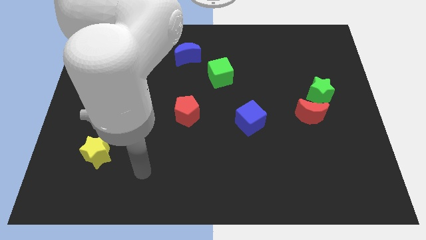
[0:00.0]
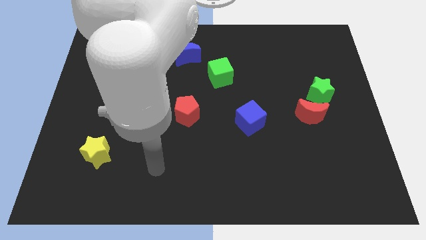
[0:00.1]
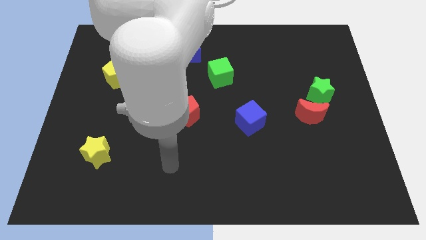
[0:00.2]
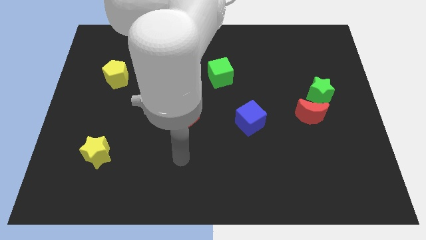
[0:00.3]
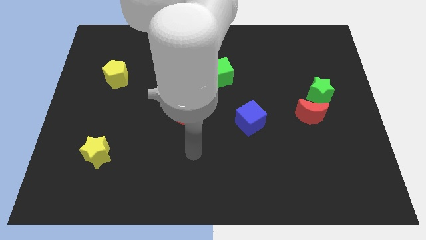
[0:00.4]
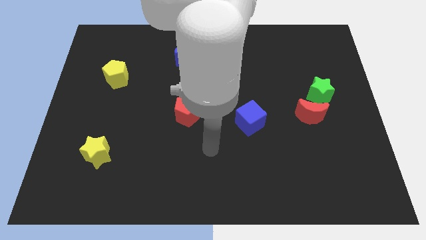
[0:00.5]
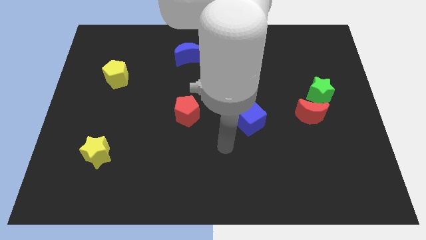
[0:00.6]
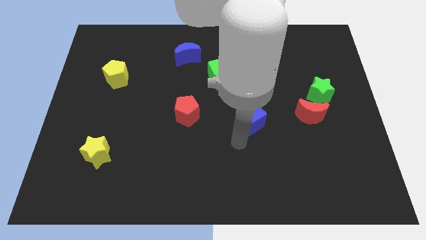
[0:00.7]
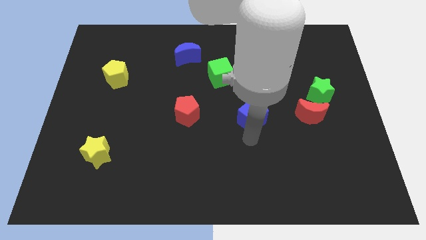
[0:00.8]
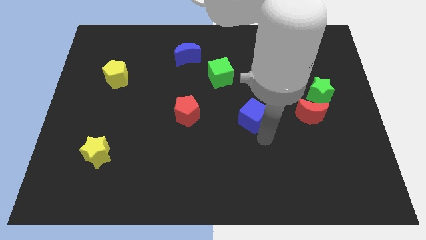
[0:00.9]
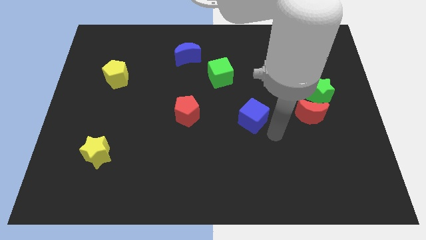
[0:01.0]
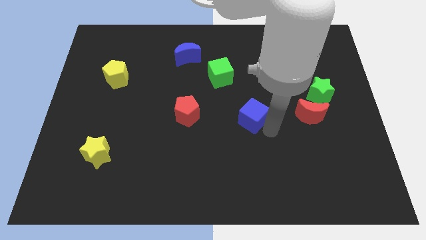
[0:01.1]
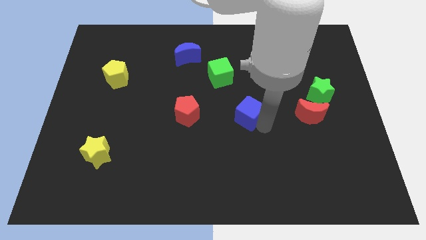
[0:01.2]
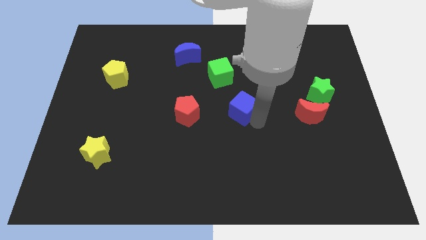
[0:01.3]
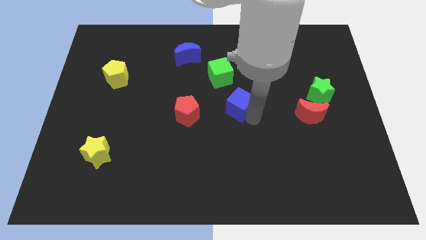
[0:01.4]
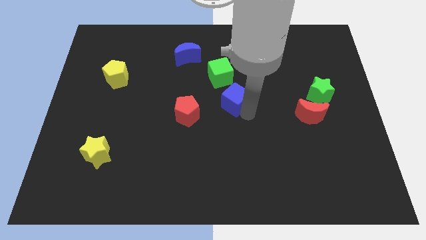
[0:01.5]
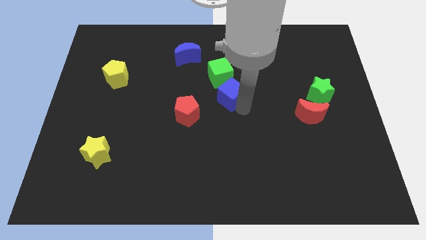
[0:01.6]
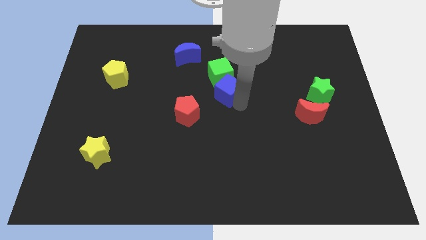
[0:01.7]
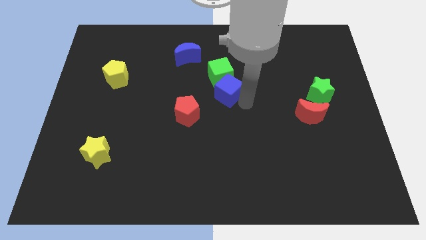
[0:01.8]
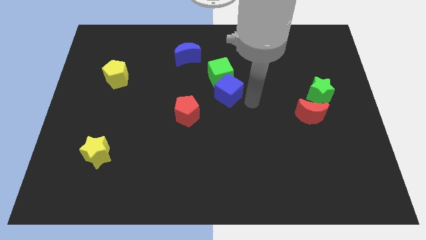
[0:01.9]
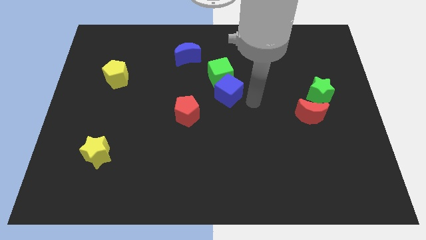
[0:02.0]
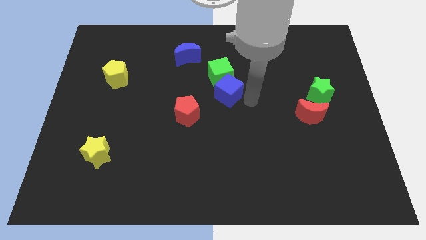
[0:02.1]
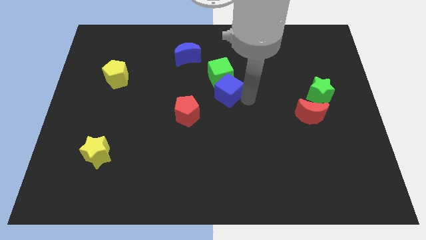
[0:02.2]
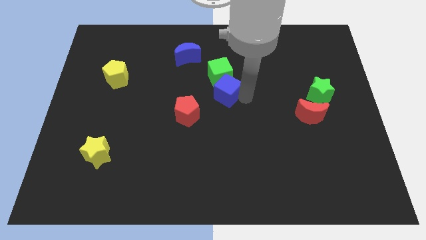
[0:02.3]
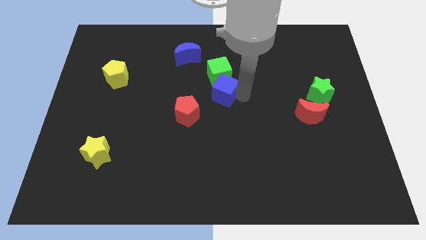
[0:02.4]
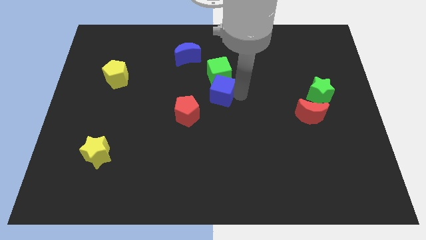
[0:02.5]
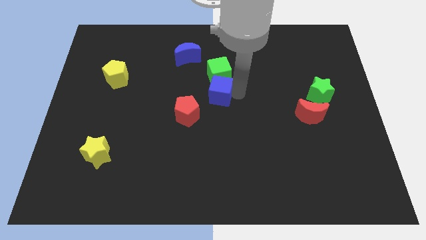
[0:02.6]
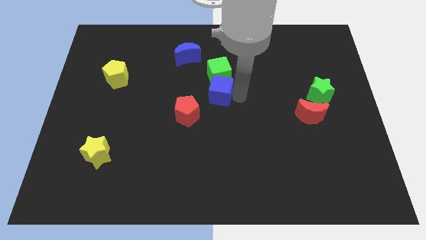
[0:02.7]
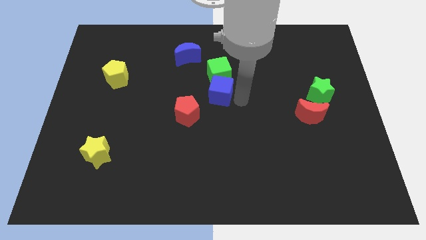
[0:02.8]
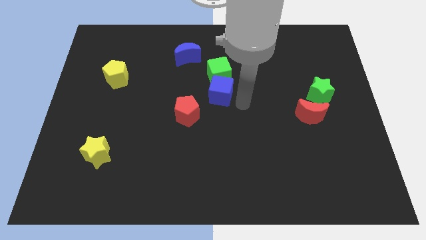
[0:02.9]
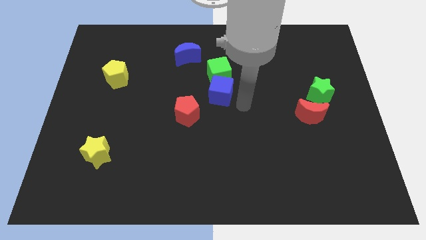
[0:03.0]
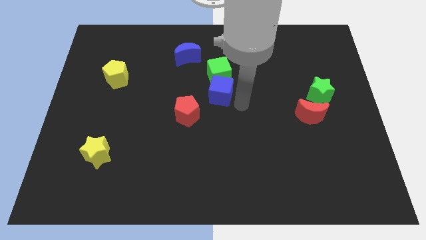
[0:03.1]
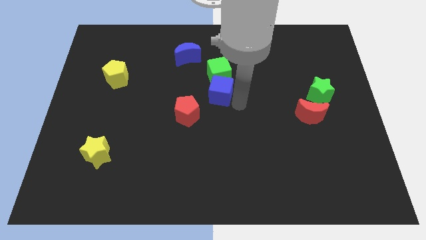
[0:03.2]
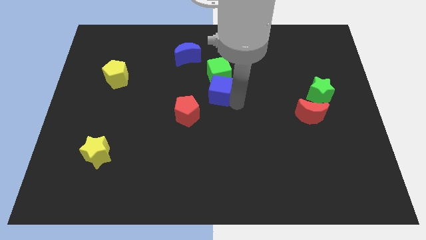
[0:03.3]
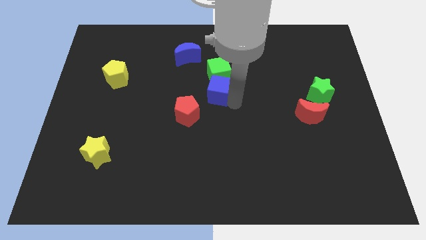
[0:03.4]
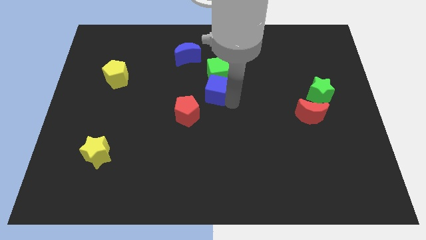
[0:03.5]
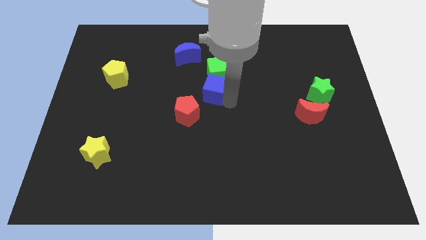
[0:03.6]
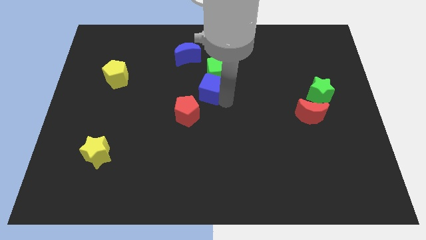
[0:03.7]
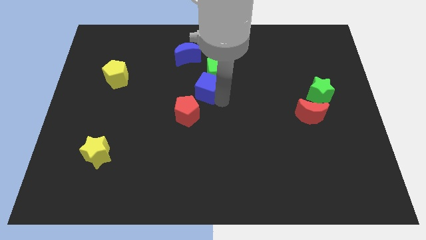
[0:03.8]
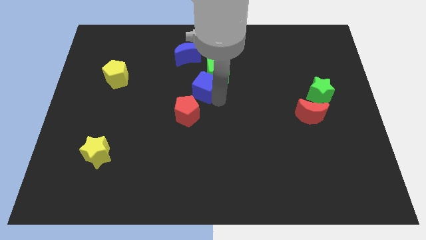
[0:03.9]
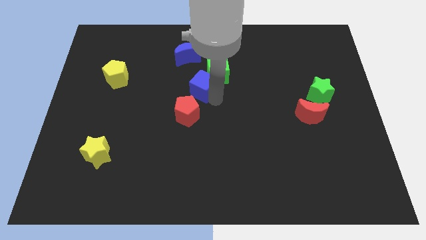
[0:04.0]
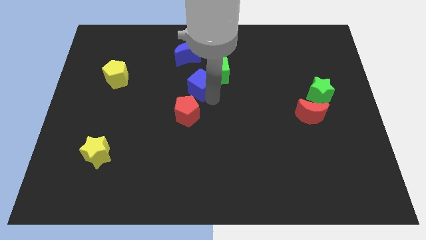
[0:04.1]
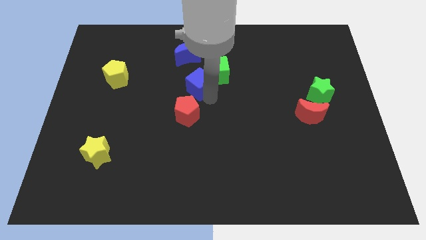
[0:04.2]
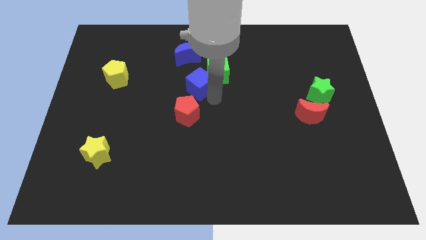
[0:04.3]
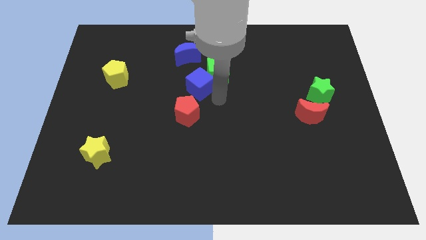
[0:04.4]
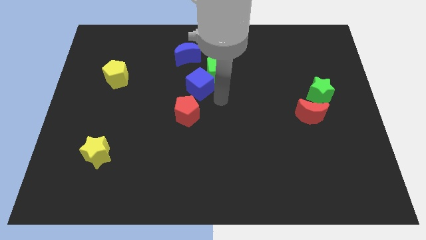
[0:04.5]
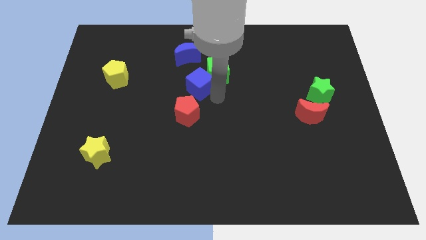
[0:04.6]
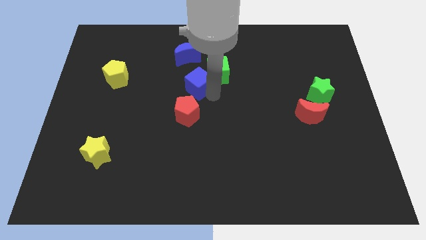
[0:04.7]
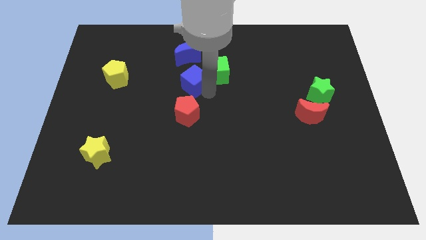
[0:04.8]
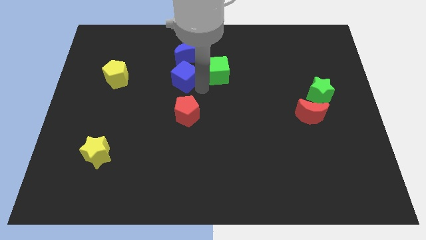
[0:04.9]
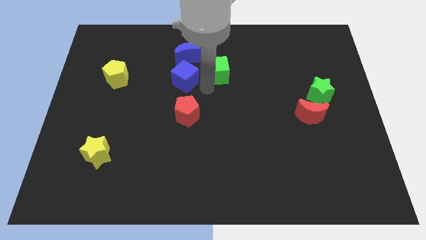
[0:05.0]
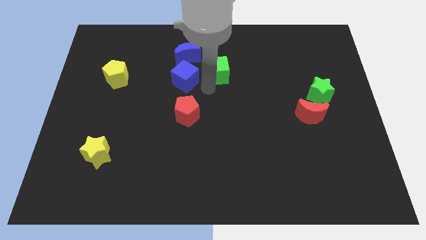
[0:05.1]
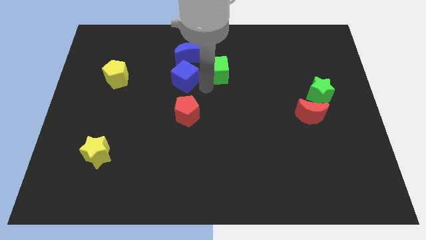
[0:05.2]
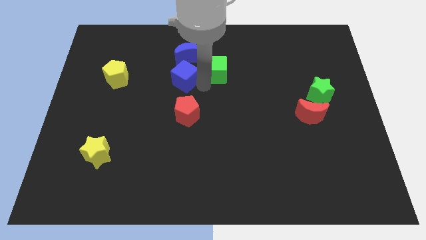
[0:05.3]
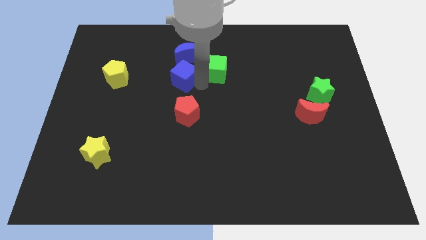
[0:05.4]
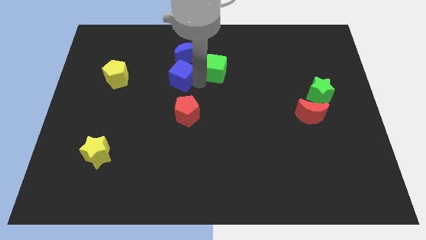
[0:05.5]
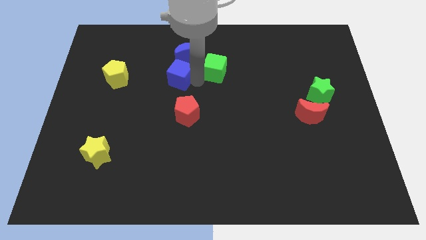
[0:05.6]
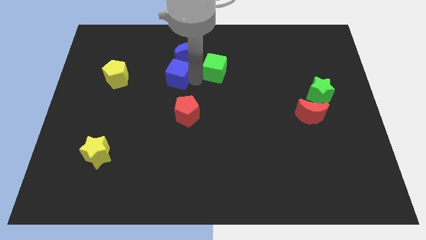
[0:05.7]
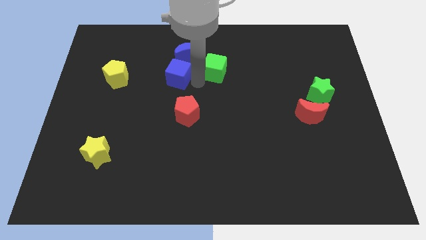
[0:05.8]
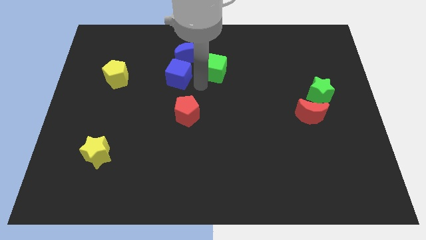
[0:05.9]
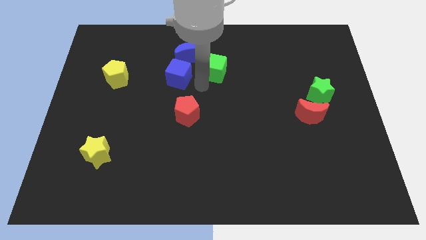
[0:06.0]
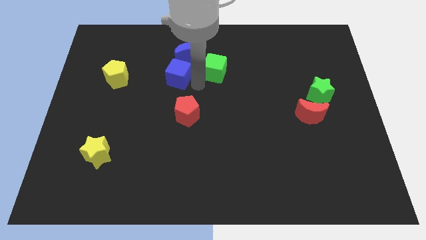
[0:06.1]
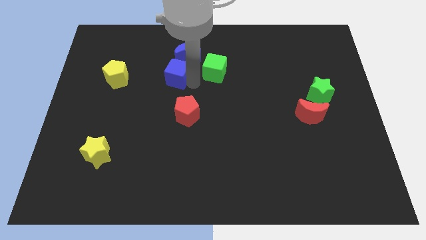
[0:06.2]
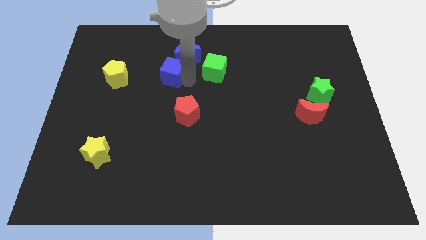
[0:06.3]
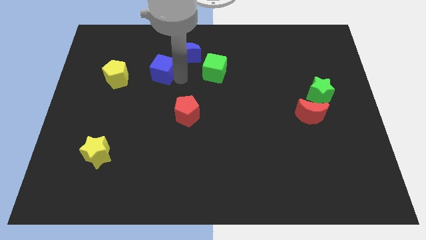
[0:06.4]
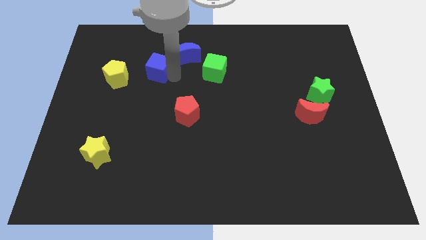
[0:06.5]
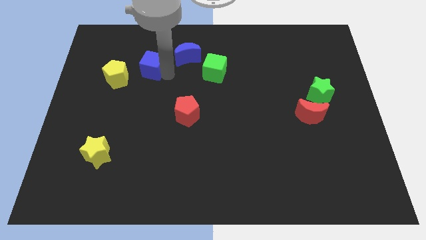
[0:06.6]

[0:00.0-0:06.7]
slide the blue cube diagonally up and to the right of the yellow pentagon
